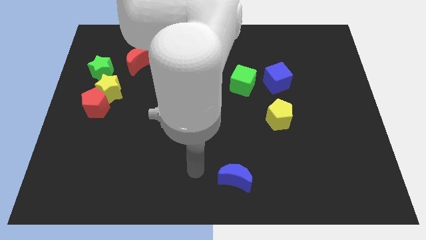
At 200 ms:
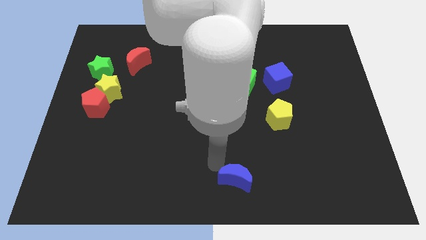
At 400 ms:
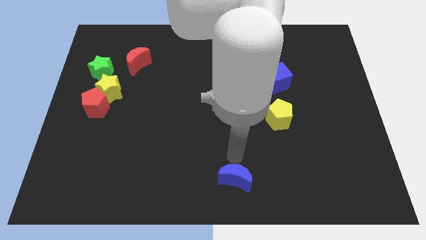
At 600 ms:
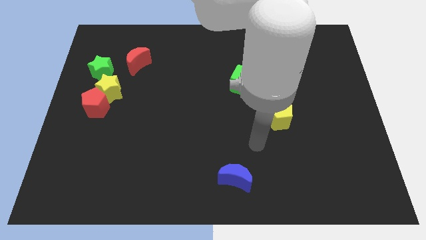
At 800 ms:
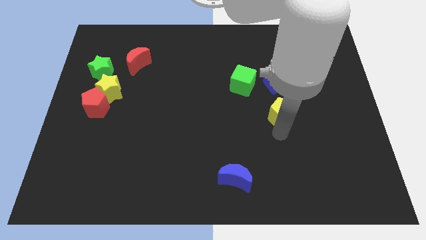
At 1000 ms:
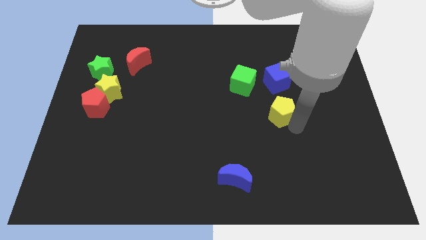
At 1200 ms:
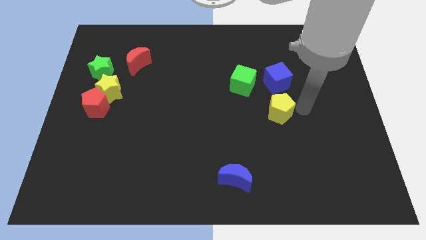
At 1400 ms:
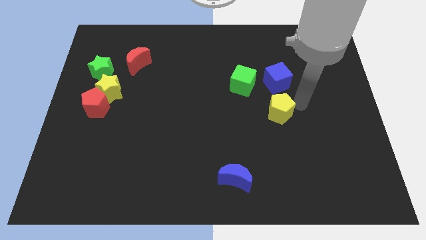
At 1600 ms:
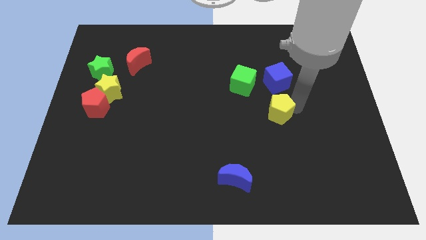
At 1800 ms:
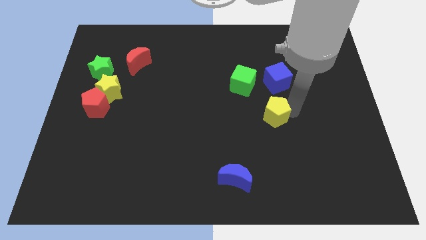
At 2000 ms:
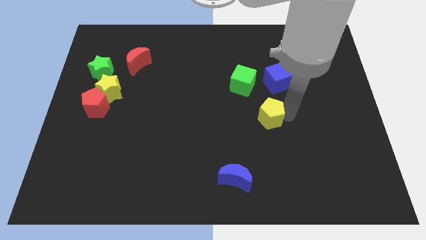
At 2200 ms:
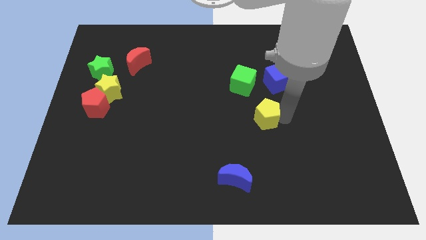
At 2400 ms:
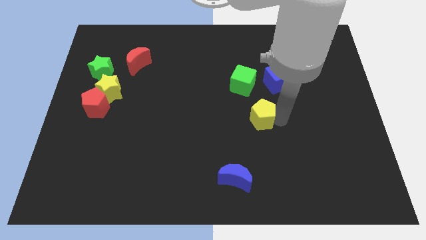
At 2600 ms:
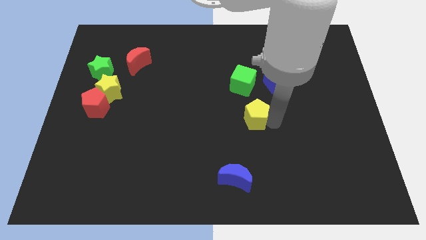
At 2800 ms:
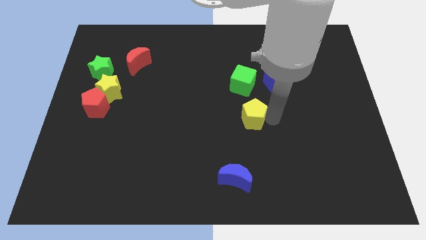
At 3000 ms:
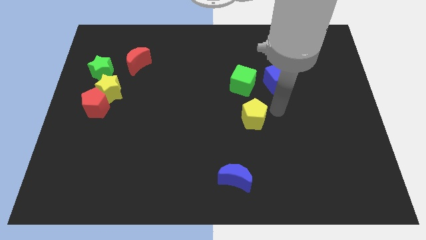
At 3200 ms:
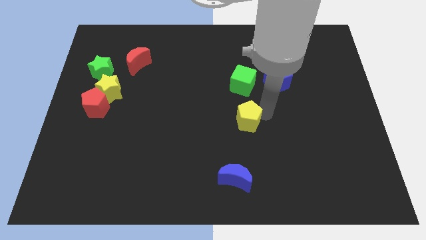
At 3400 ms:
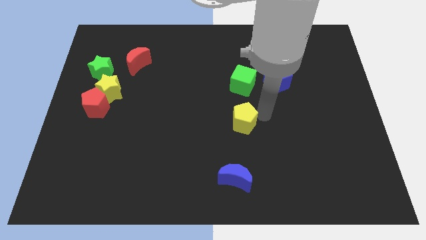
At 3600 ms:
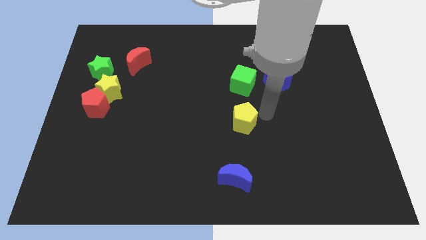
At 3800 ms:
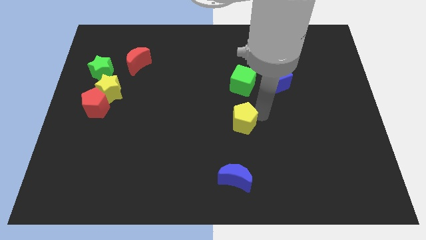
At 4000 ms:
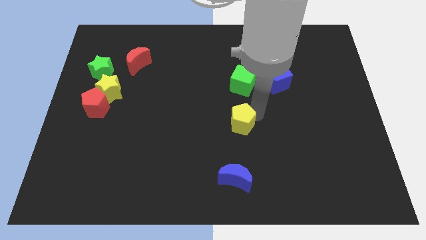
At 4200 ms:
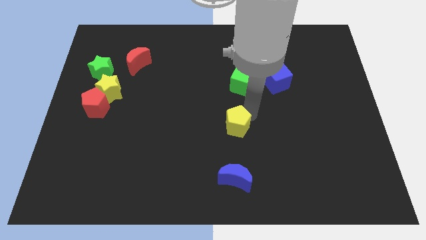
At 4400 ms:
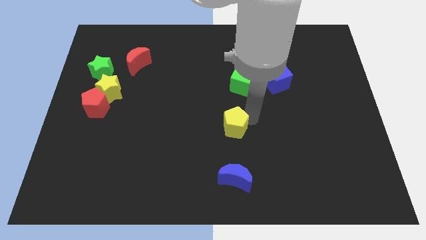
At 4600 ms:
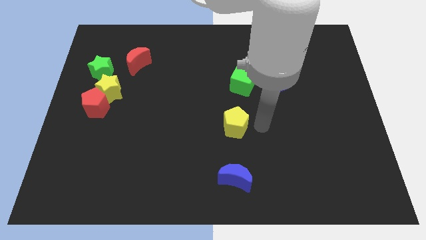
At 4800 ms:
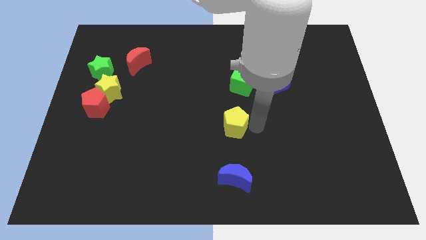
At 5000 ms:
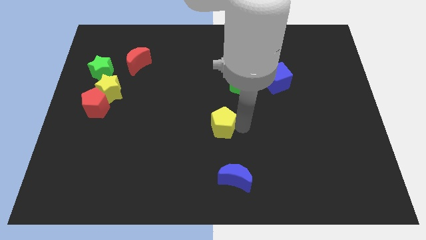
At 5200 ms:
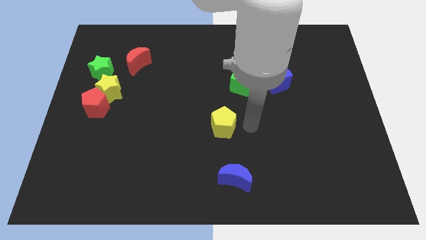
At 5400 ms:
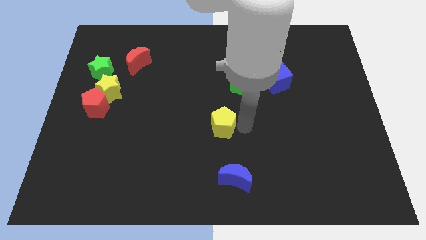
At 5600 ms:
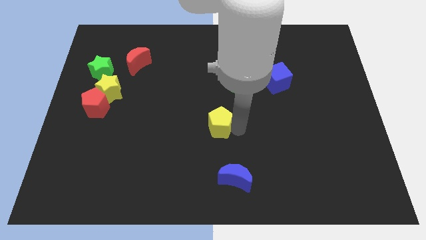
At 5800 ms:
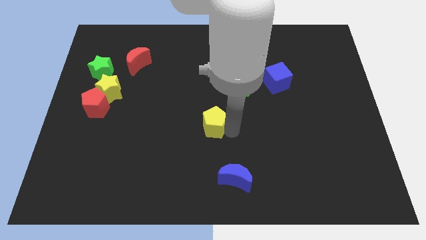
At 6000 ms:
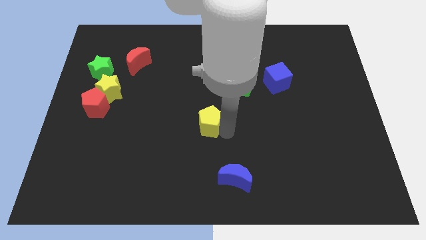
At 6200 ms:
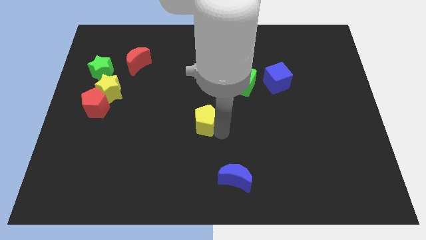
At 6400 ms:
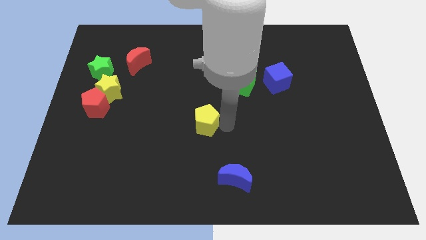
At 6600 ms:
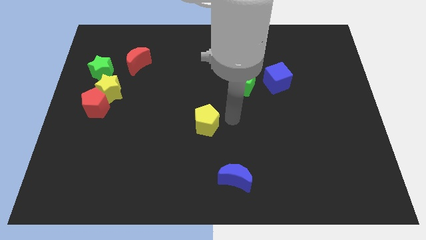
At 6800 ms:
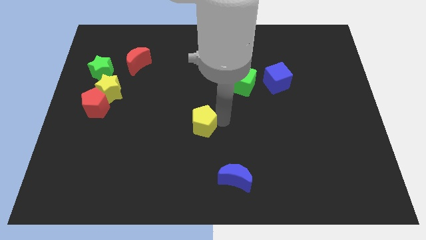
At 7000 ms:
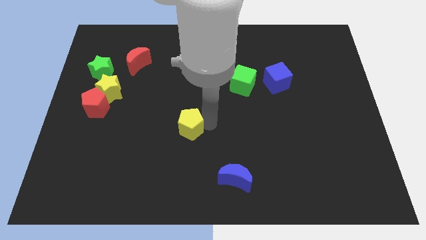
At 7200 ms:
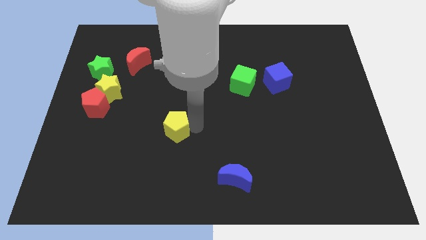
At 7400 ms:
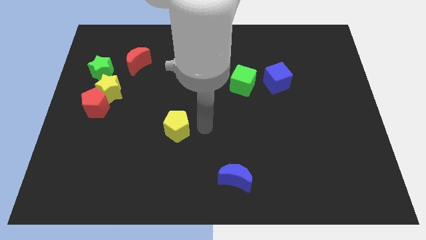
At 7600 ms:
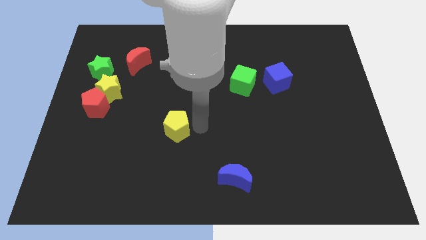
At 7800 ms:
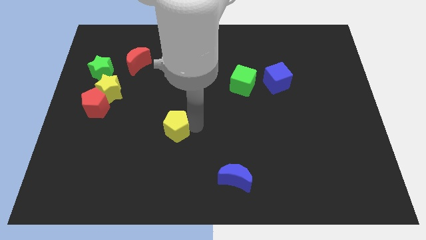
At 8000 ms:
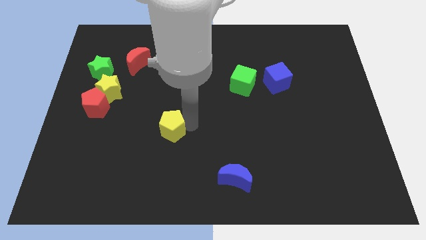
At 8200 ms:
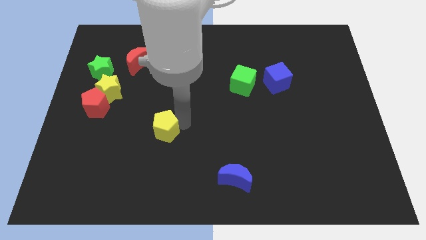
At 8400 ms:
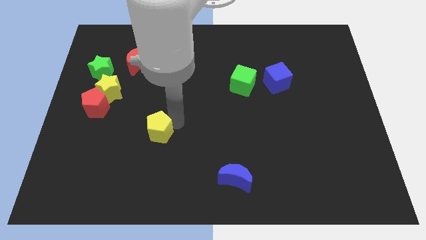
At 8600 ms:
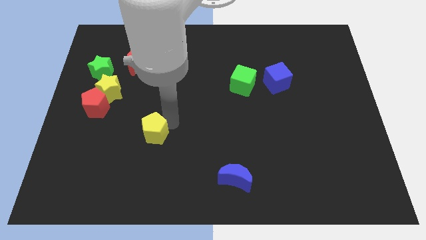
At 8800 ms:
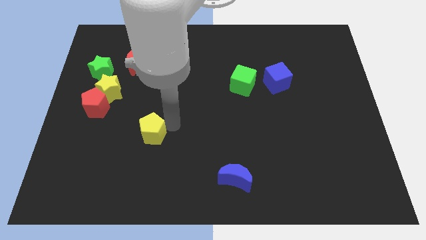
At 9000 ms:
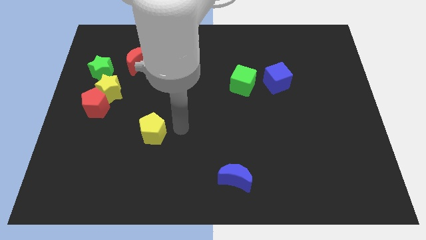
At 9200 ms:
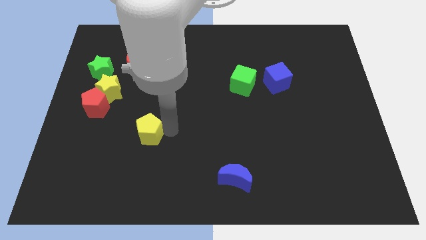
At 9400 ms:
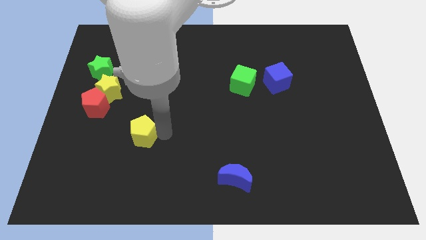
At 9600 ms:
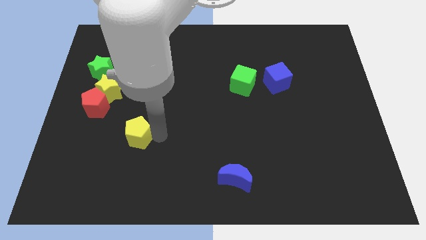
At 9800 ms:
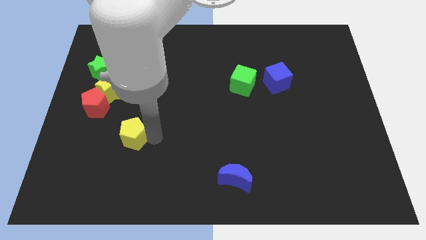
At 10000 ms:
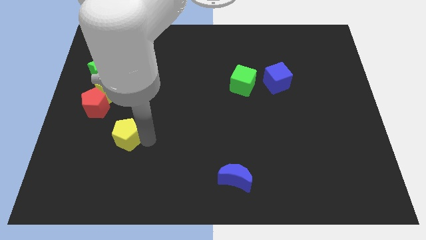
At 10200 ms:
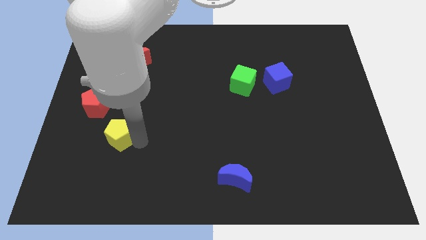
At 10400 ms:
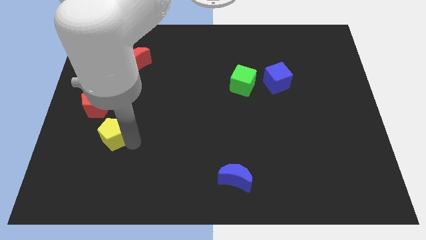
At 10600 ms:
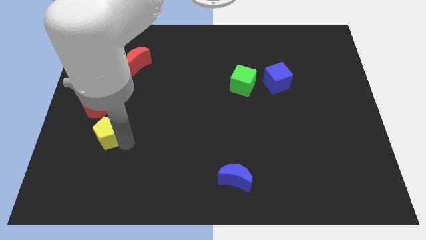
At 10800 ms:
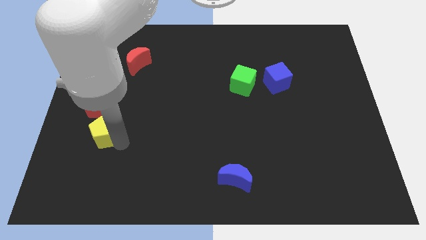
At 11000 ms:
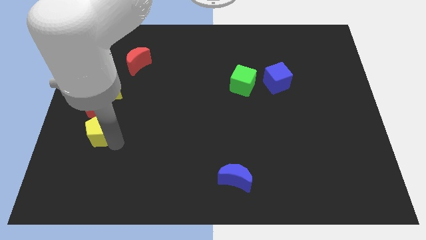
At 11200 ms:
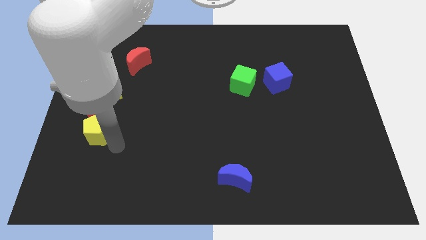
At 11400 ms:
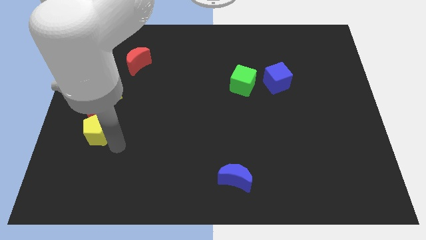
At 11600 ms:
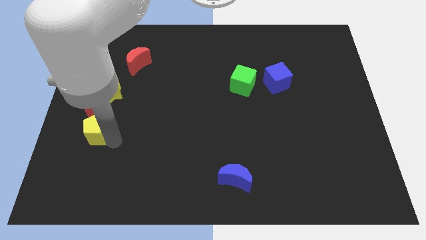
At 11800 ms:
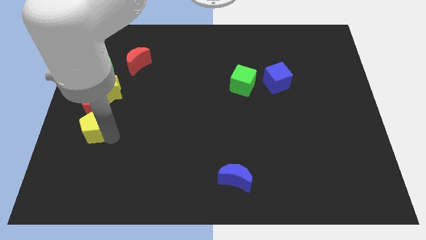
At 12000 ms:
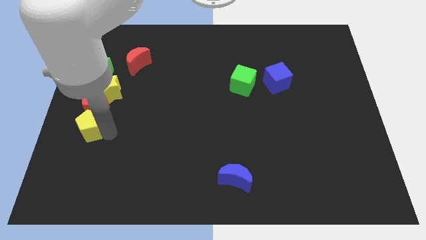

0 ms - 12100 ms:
push the yellow pentagon to the left side

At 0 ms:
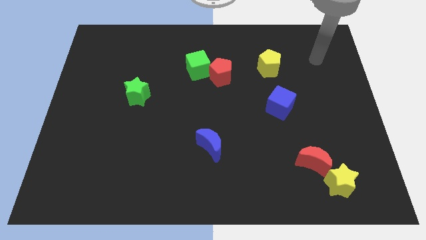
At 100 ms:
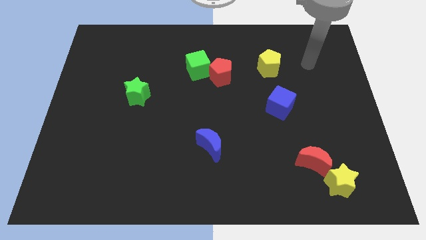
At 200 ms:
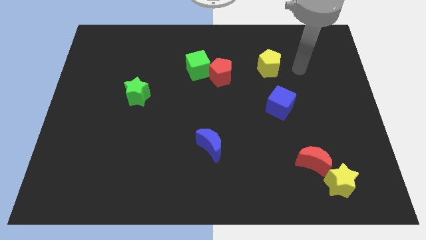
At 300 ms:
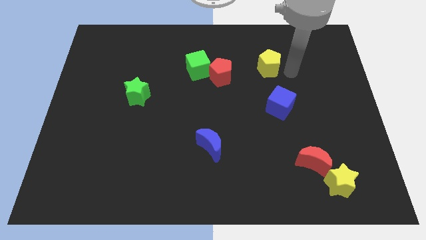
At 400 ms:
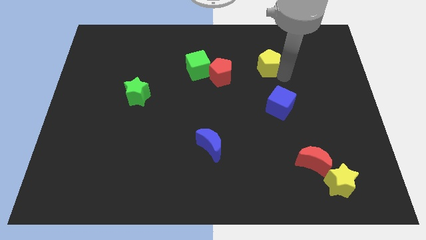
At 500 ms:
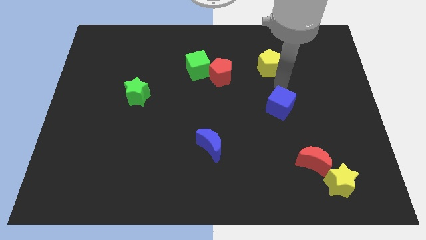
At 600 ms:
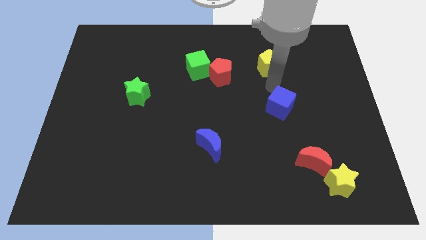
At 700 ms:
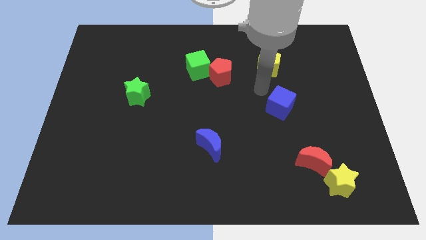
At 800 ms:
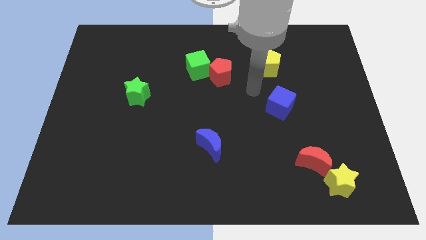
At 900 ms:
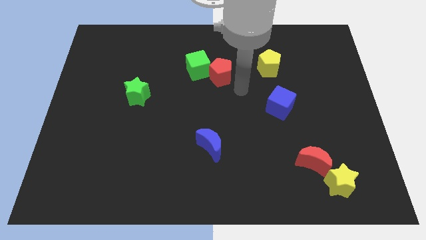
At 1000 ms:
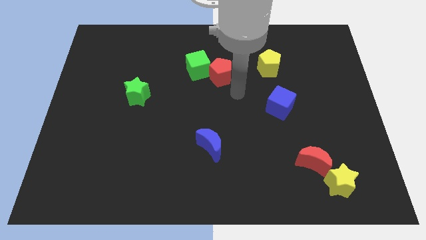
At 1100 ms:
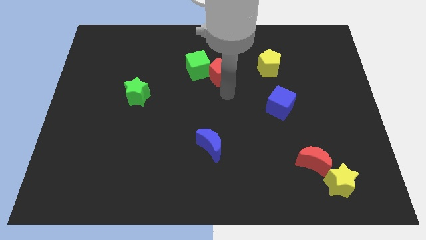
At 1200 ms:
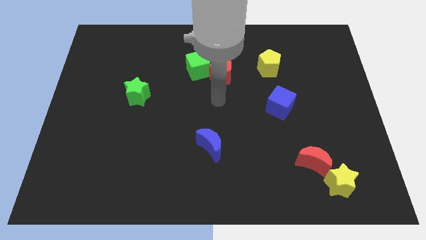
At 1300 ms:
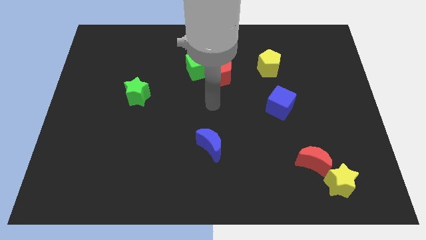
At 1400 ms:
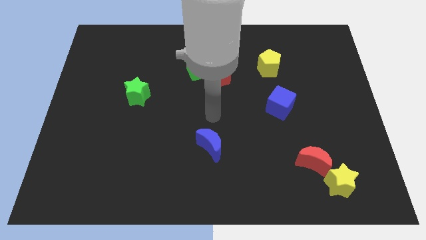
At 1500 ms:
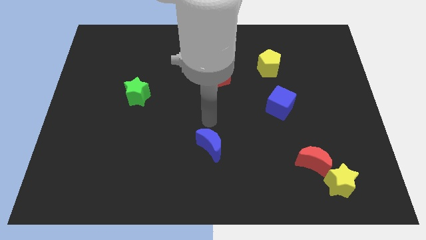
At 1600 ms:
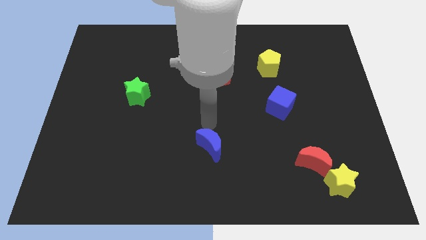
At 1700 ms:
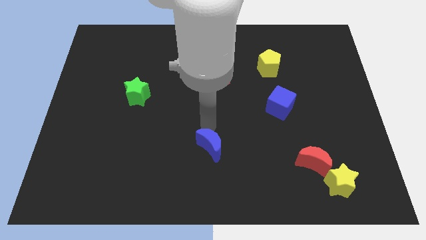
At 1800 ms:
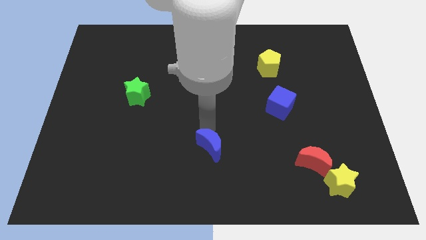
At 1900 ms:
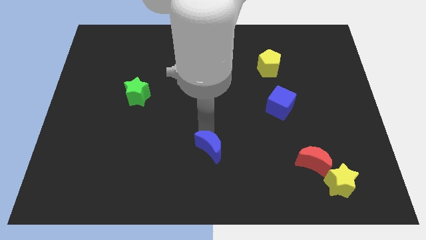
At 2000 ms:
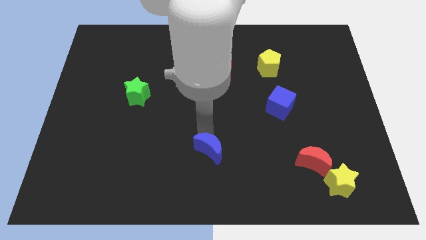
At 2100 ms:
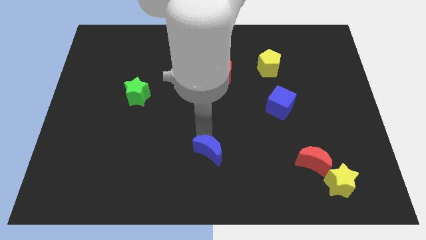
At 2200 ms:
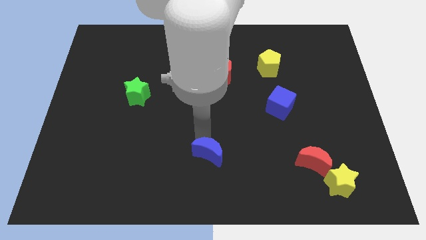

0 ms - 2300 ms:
move the blue moon to the bottom side
